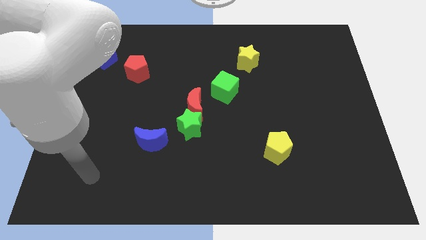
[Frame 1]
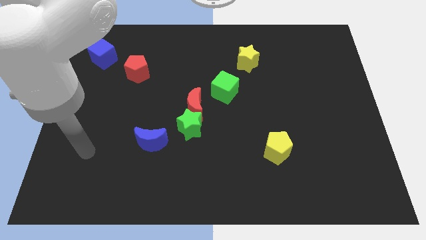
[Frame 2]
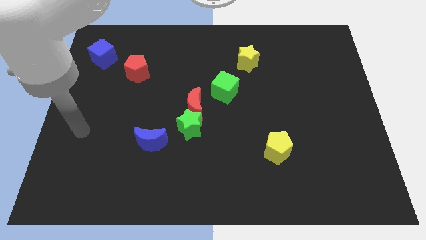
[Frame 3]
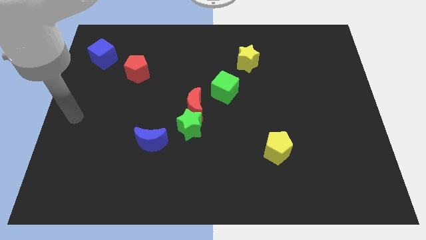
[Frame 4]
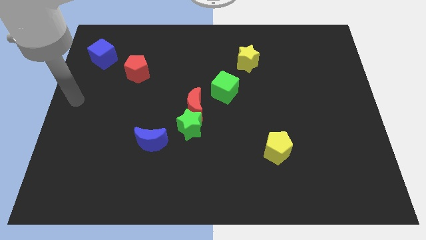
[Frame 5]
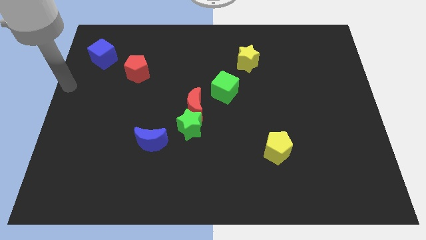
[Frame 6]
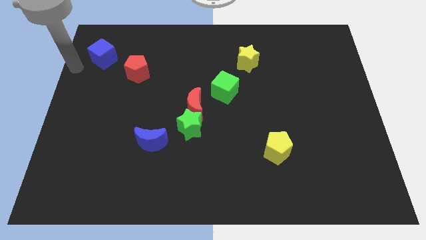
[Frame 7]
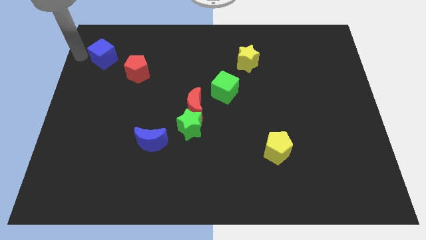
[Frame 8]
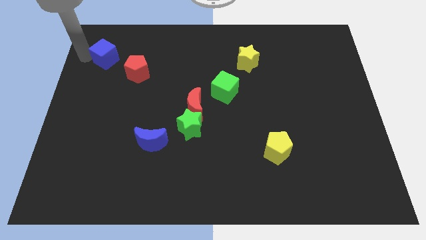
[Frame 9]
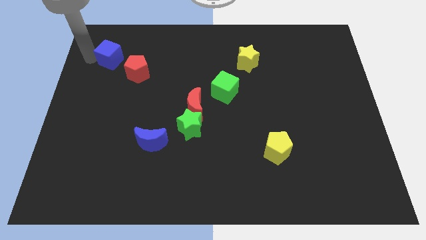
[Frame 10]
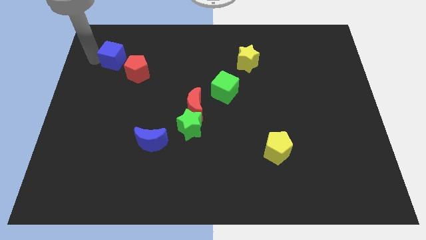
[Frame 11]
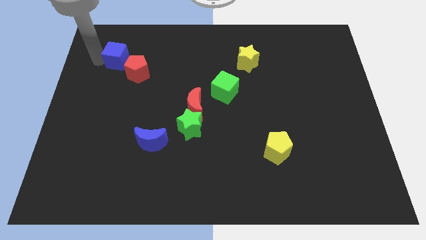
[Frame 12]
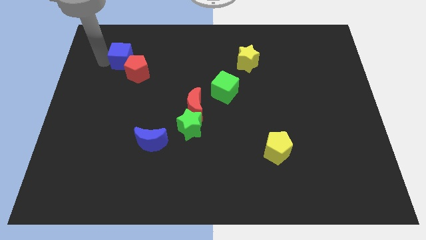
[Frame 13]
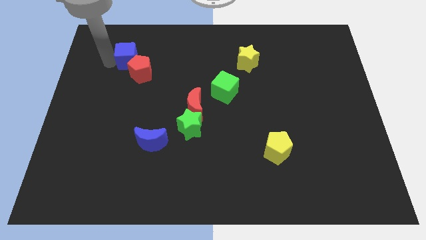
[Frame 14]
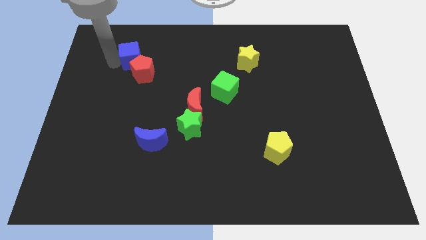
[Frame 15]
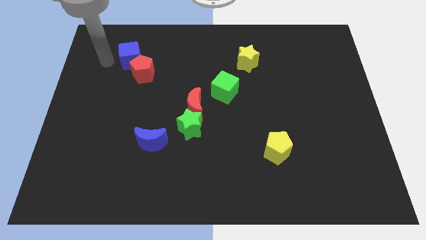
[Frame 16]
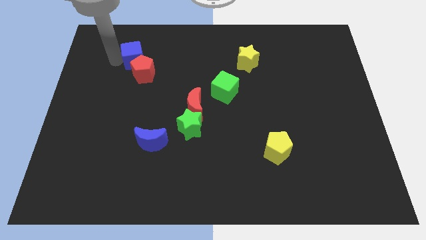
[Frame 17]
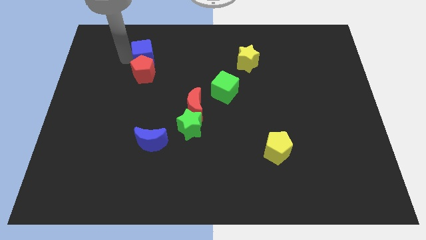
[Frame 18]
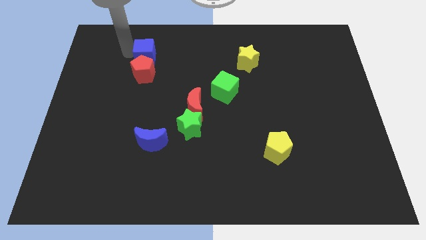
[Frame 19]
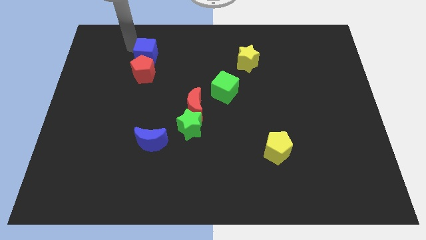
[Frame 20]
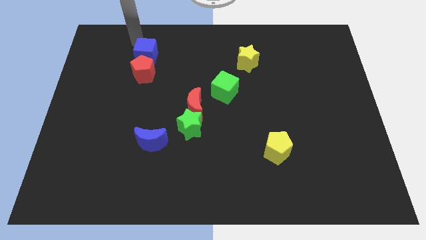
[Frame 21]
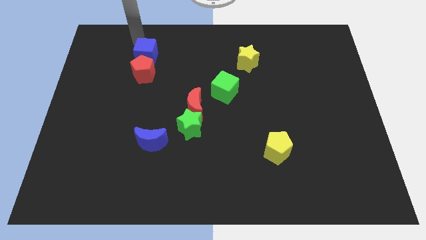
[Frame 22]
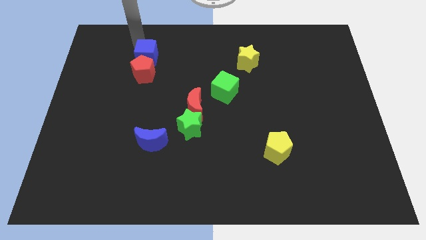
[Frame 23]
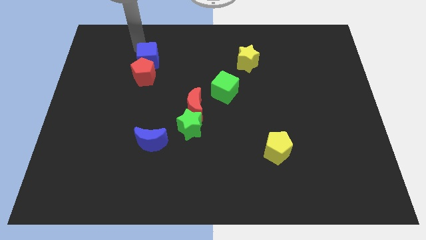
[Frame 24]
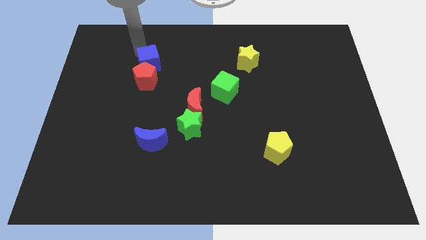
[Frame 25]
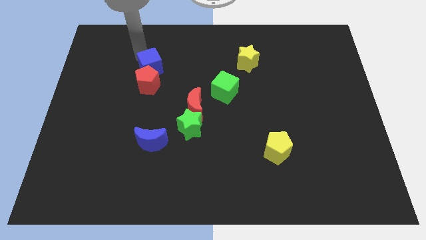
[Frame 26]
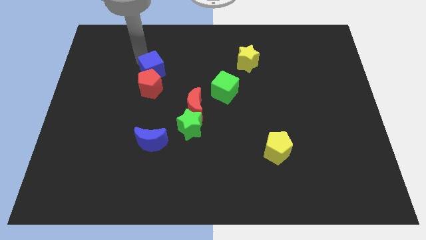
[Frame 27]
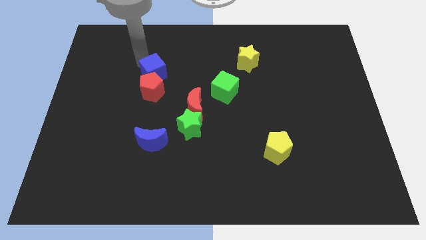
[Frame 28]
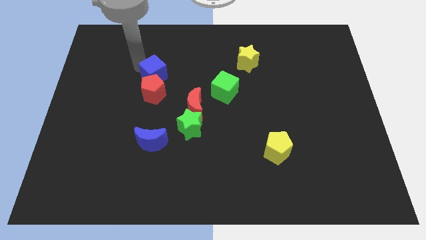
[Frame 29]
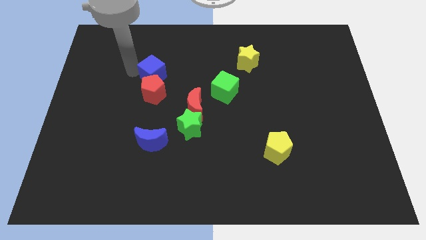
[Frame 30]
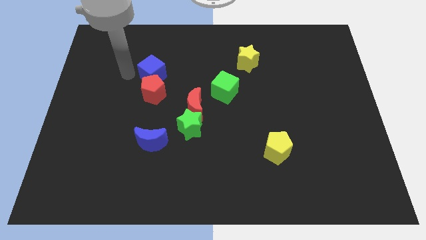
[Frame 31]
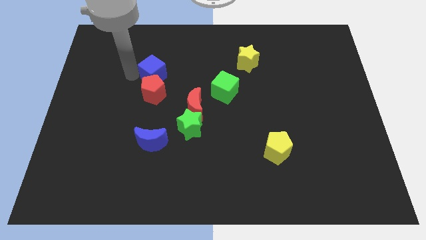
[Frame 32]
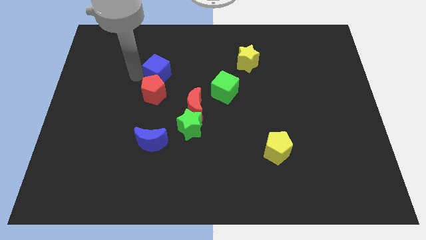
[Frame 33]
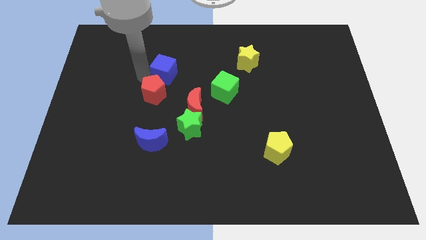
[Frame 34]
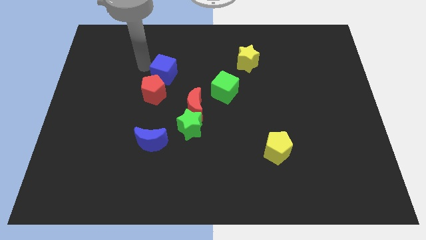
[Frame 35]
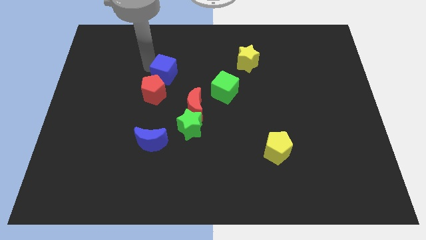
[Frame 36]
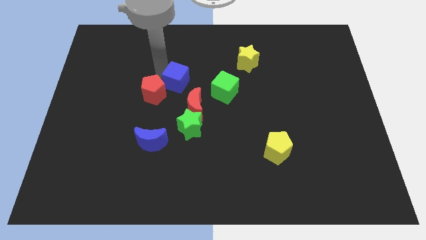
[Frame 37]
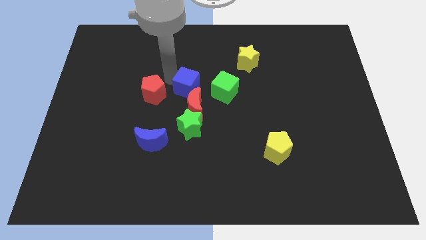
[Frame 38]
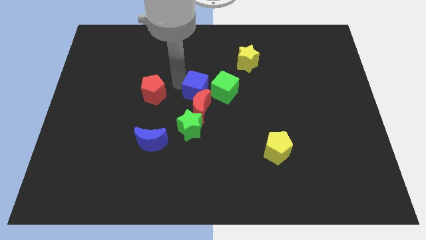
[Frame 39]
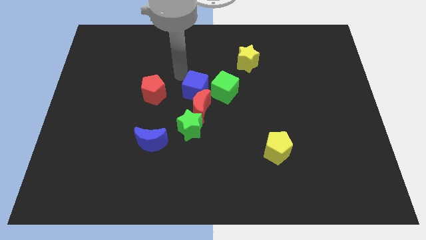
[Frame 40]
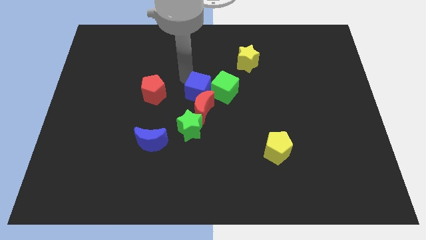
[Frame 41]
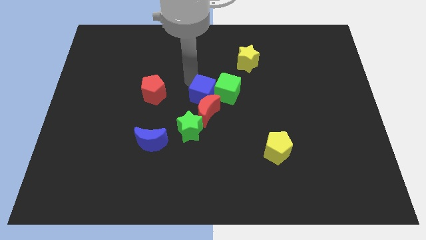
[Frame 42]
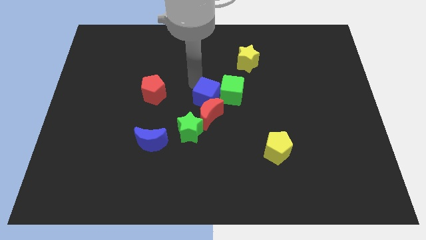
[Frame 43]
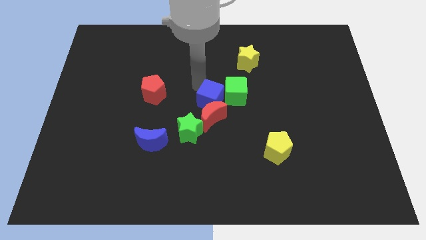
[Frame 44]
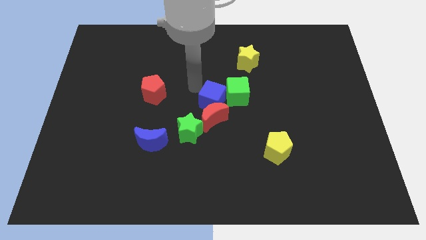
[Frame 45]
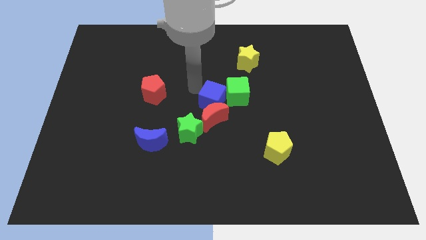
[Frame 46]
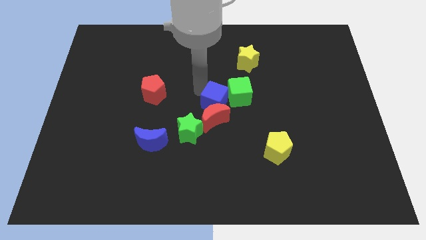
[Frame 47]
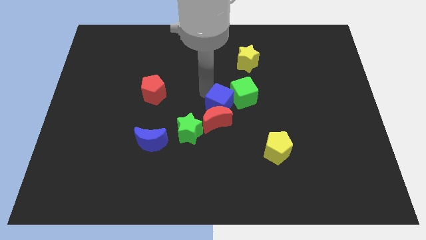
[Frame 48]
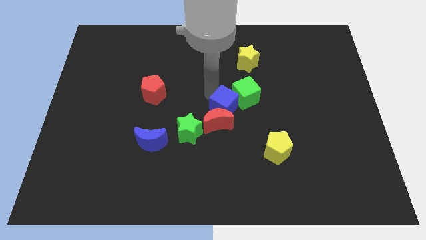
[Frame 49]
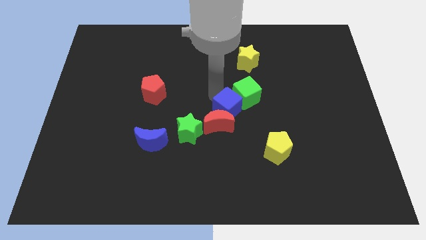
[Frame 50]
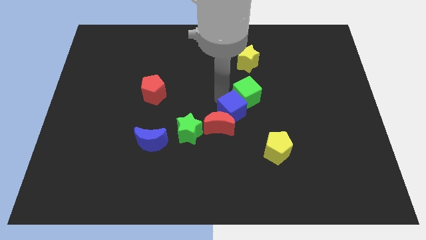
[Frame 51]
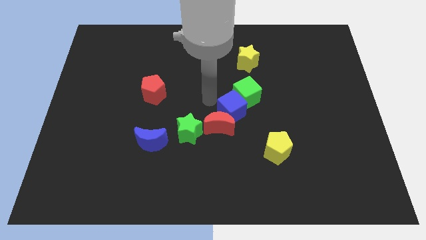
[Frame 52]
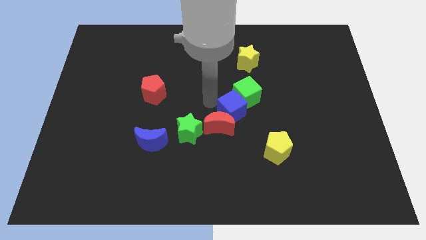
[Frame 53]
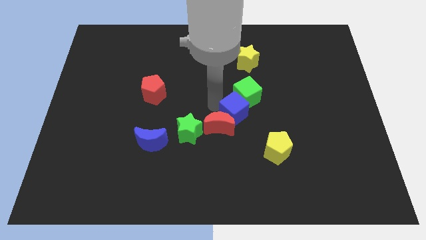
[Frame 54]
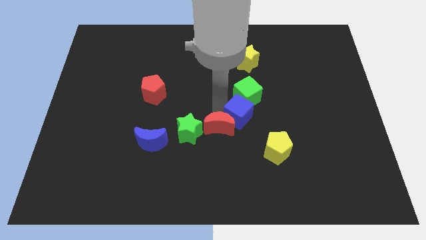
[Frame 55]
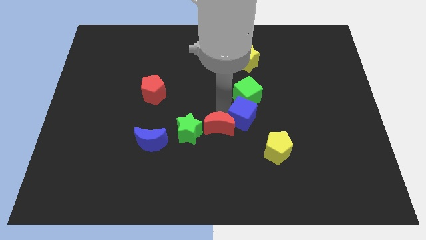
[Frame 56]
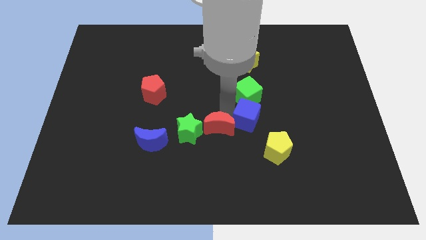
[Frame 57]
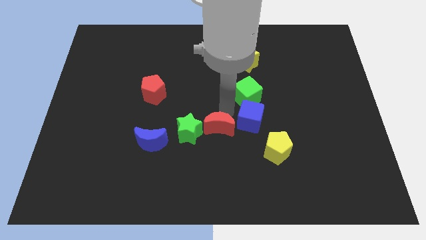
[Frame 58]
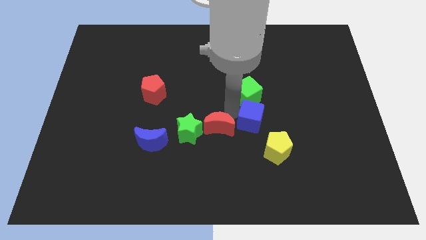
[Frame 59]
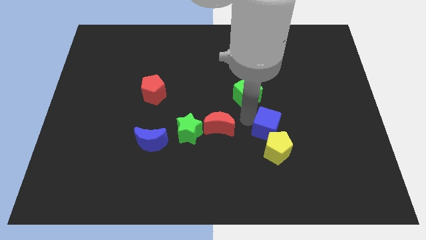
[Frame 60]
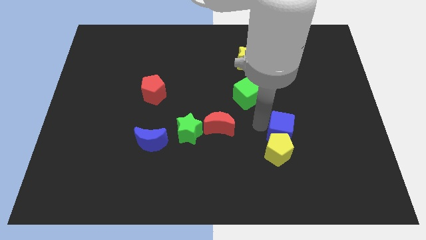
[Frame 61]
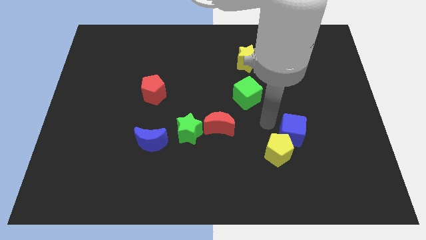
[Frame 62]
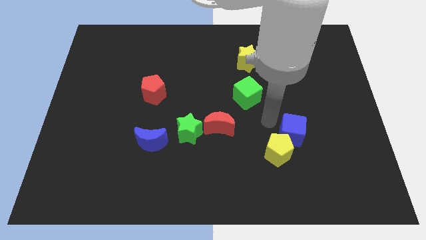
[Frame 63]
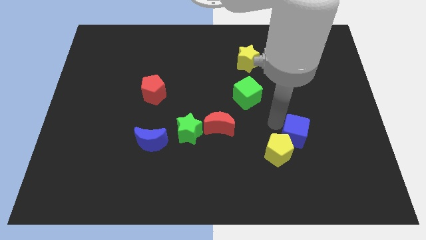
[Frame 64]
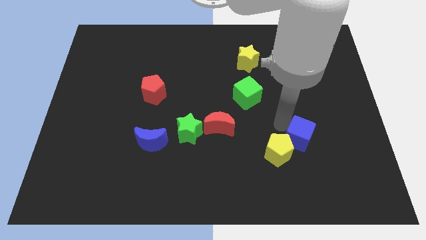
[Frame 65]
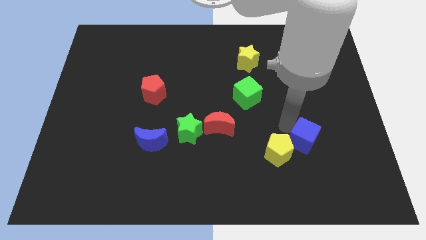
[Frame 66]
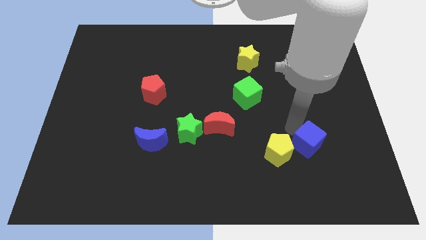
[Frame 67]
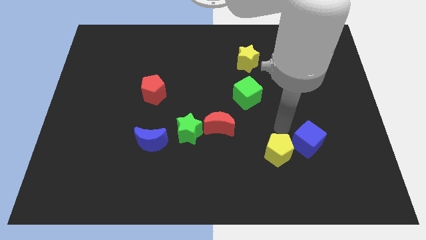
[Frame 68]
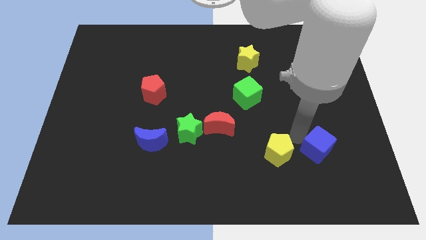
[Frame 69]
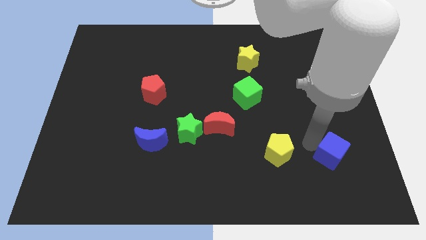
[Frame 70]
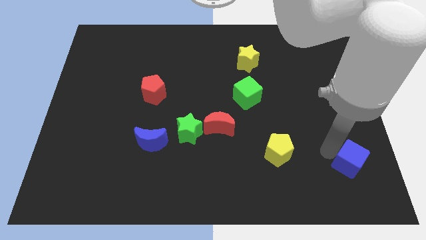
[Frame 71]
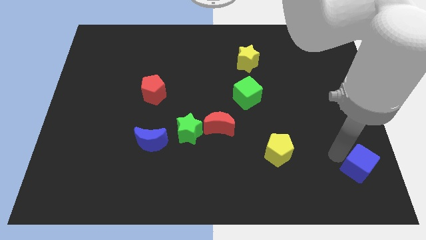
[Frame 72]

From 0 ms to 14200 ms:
slide the blue cube to the bottom right of the board

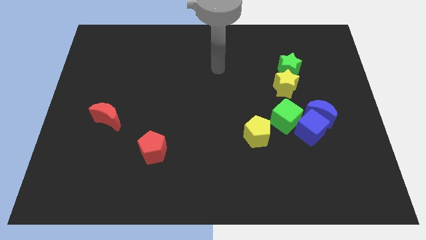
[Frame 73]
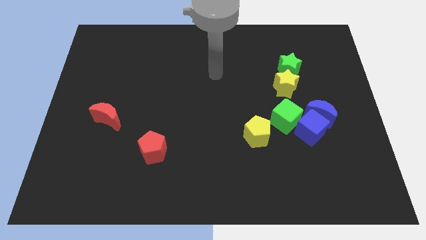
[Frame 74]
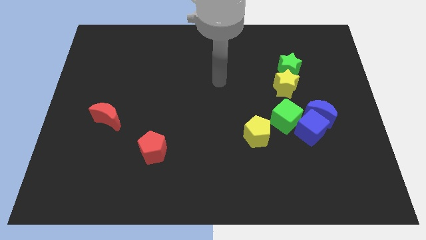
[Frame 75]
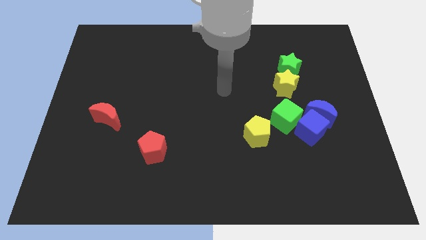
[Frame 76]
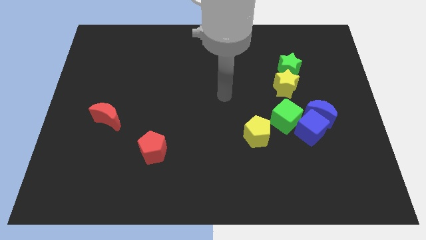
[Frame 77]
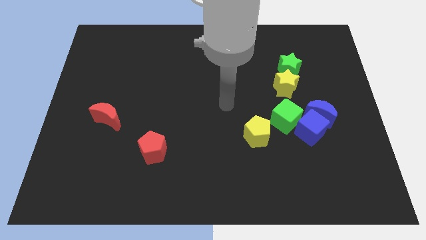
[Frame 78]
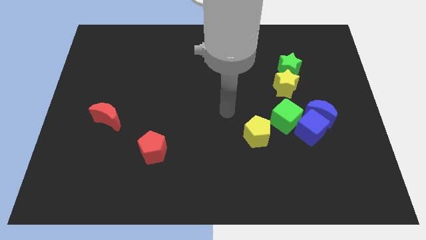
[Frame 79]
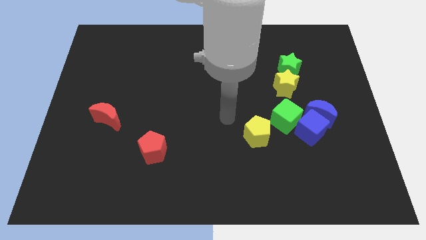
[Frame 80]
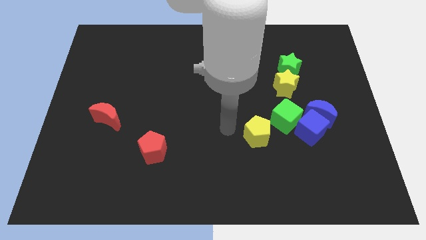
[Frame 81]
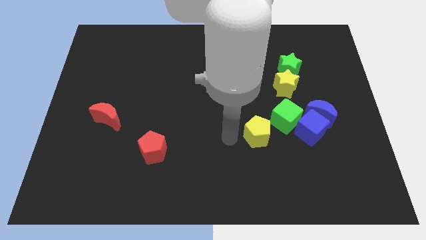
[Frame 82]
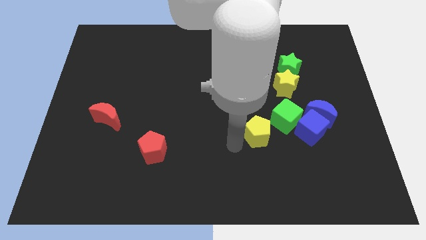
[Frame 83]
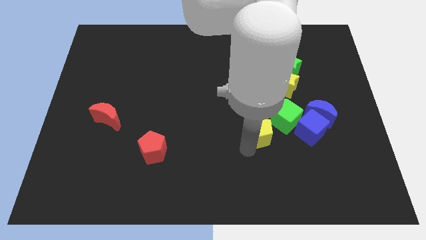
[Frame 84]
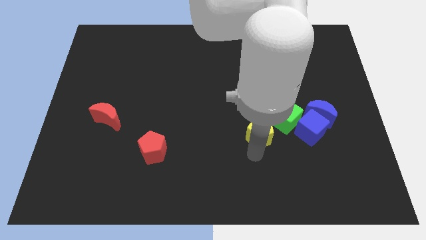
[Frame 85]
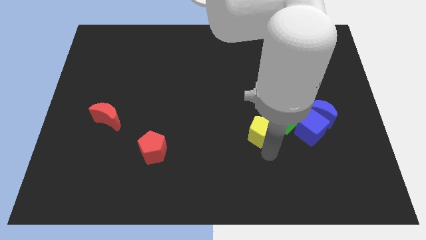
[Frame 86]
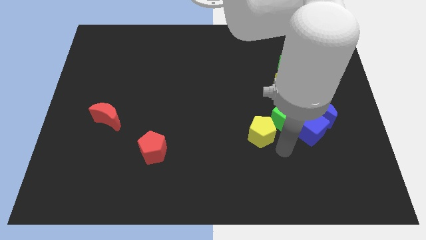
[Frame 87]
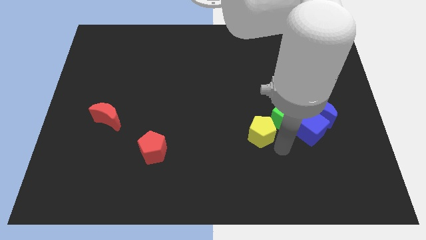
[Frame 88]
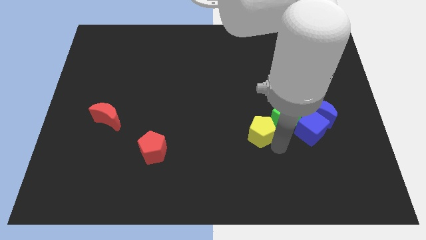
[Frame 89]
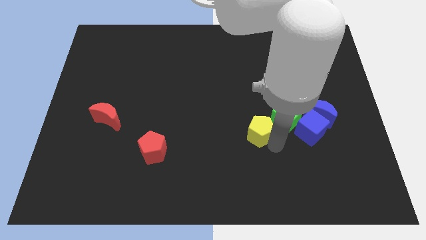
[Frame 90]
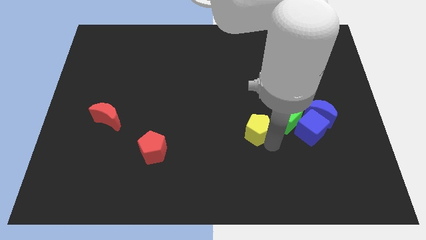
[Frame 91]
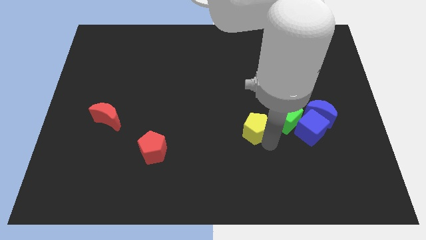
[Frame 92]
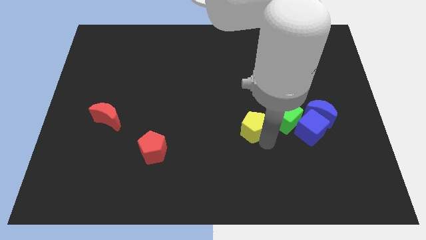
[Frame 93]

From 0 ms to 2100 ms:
push the yellow pentagon to the center
